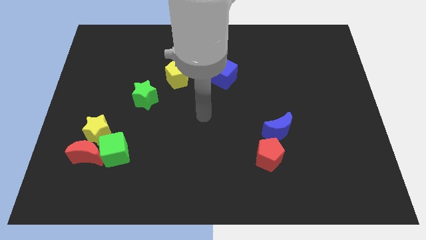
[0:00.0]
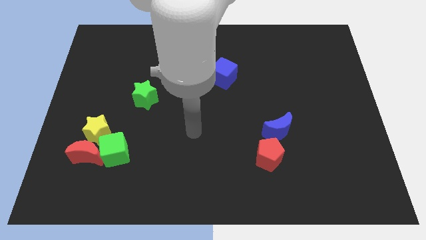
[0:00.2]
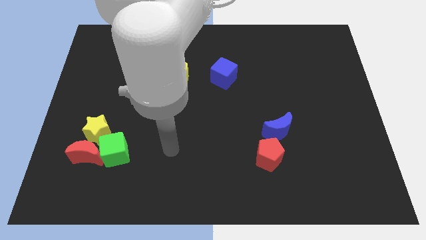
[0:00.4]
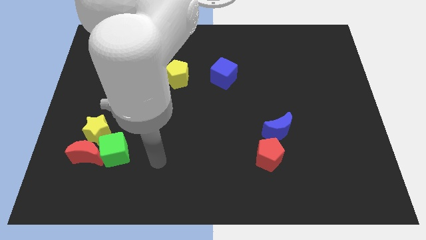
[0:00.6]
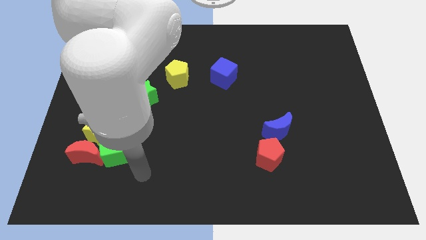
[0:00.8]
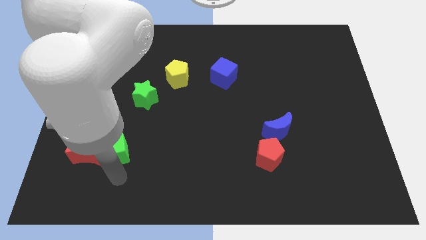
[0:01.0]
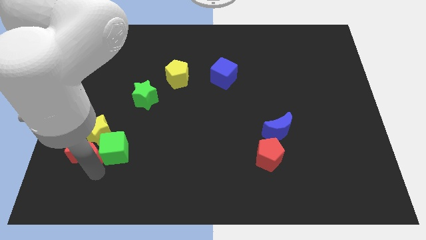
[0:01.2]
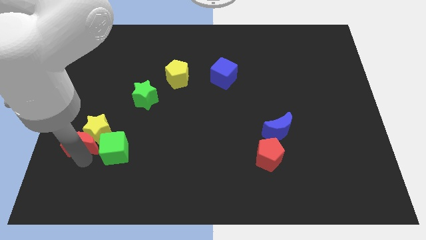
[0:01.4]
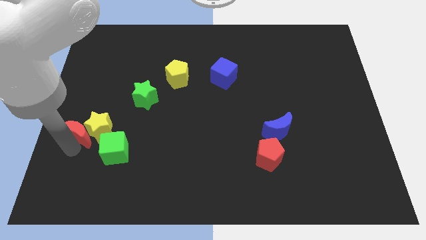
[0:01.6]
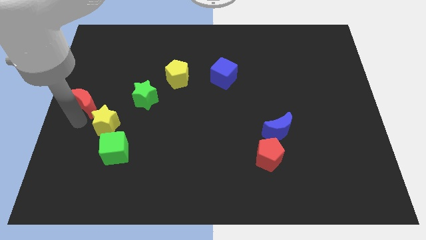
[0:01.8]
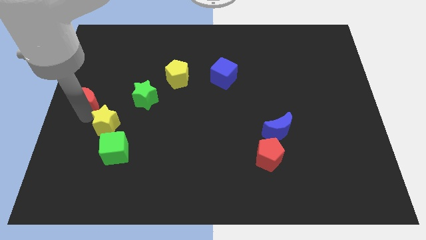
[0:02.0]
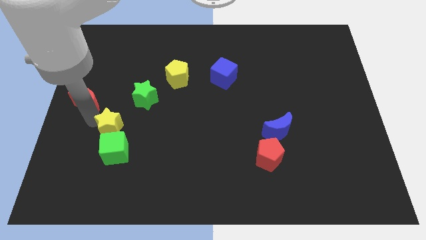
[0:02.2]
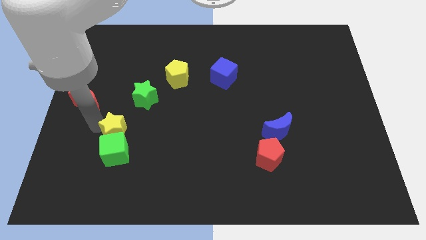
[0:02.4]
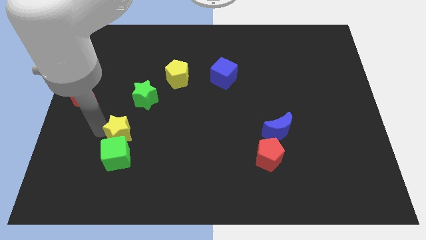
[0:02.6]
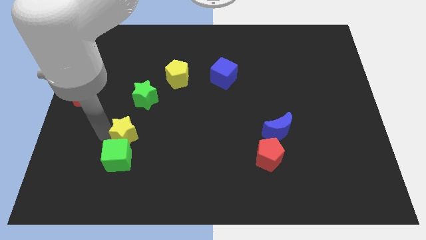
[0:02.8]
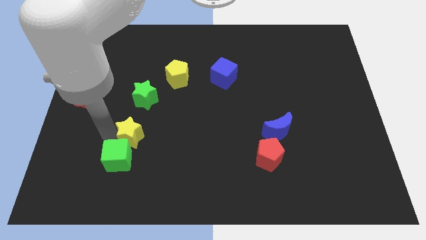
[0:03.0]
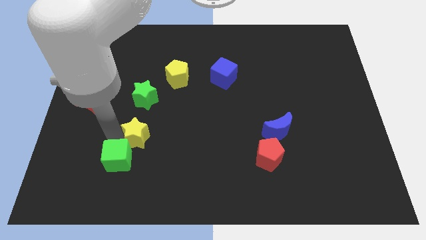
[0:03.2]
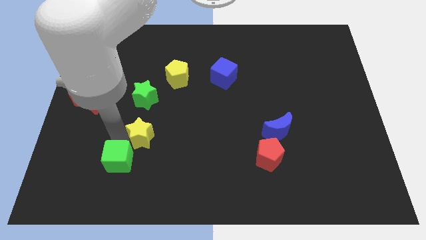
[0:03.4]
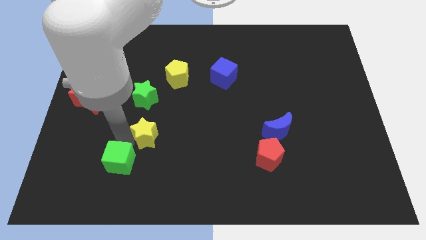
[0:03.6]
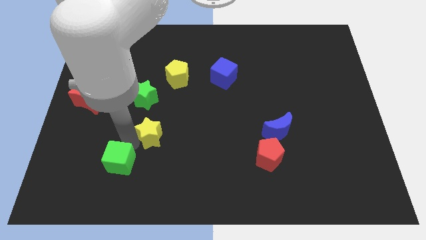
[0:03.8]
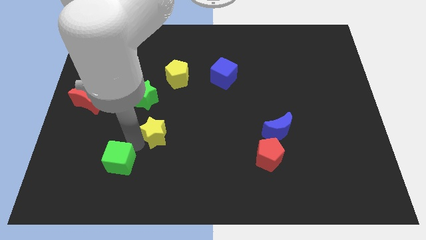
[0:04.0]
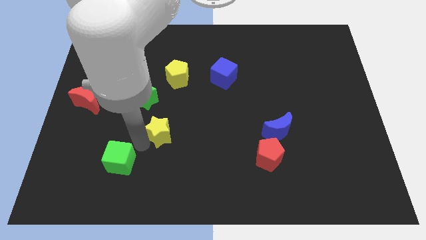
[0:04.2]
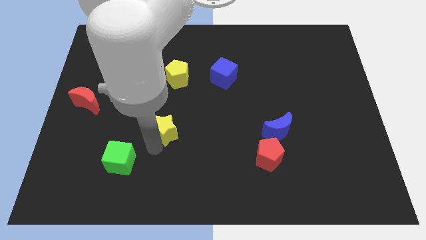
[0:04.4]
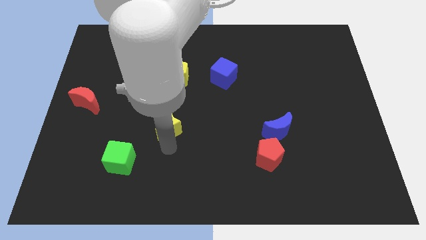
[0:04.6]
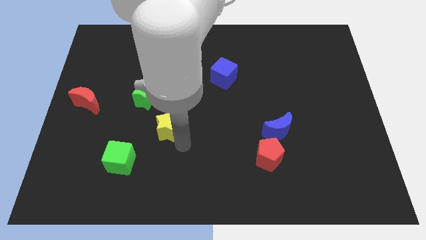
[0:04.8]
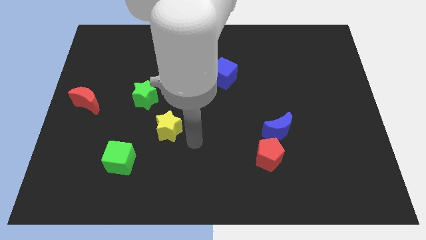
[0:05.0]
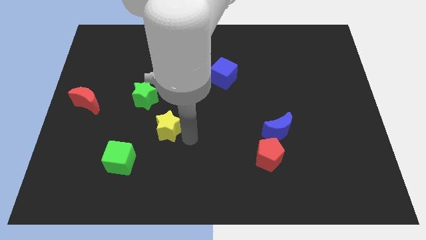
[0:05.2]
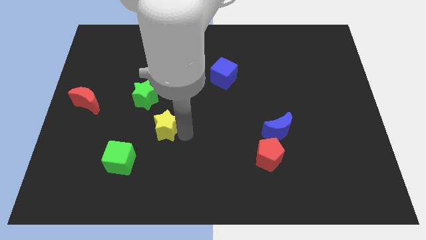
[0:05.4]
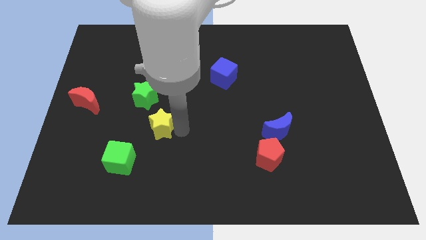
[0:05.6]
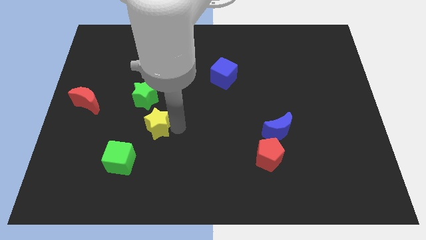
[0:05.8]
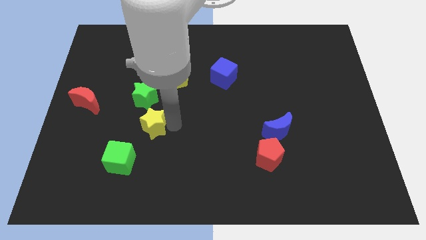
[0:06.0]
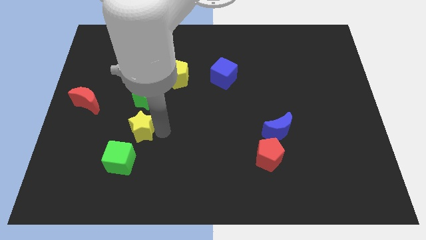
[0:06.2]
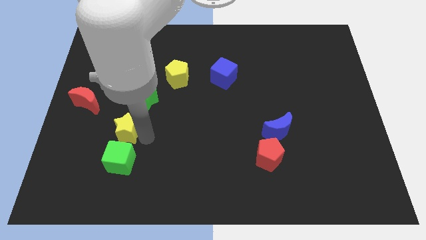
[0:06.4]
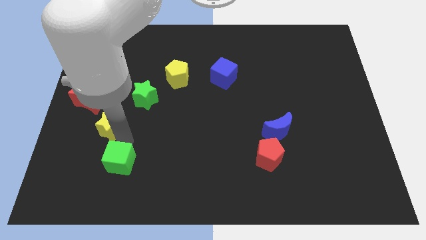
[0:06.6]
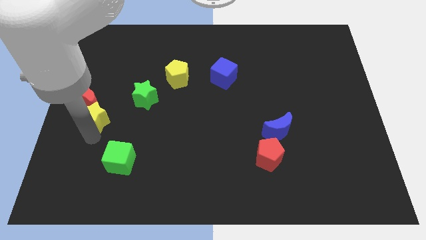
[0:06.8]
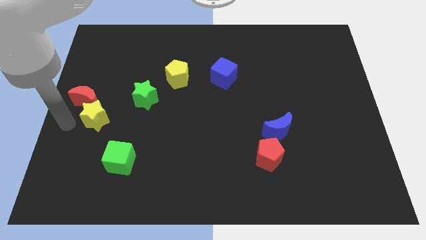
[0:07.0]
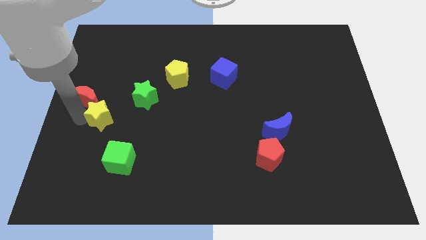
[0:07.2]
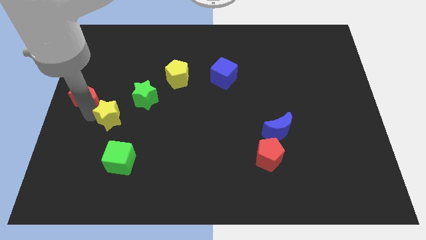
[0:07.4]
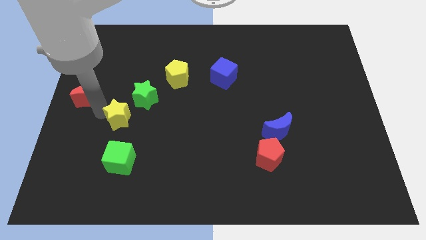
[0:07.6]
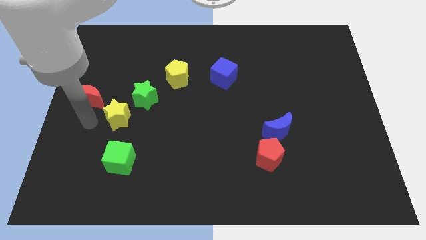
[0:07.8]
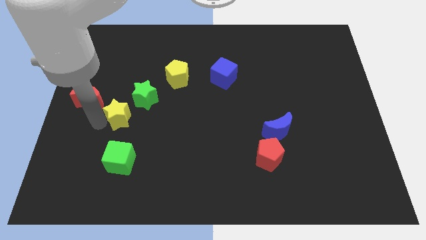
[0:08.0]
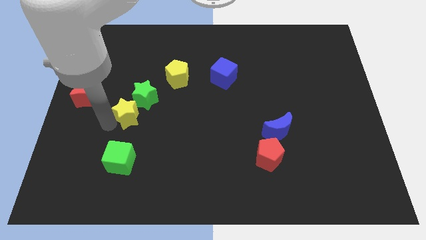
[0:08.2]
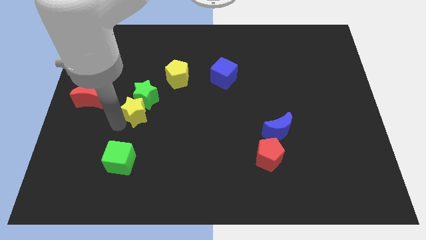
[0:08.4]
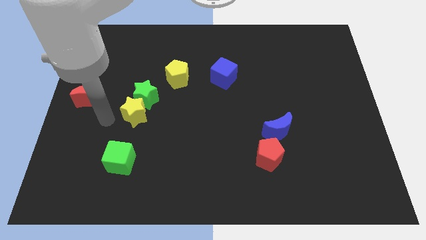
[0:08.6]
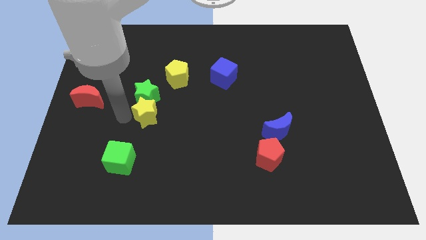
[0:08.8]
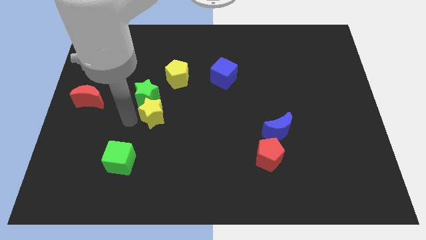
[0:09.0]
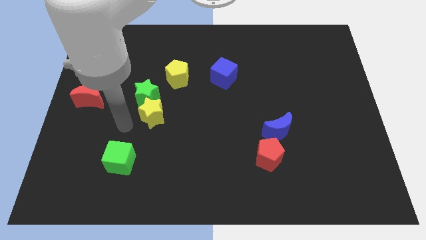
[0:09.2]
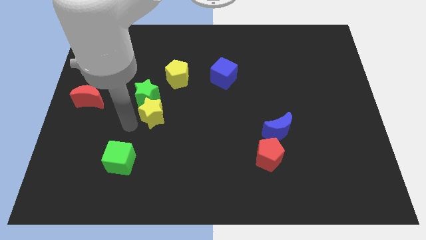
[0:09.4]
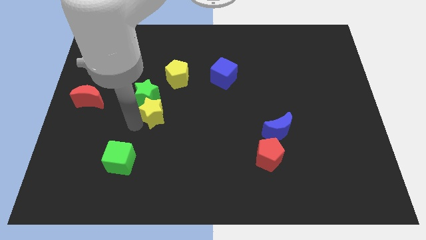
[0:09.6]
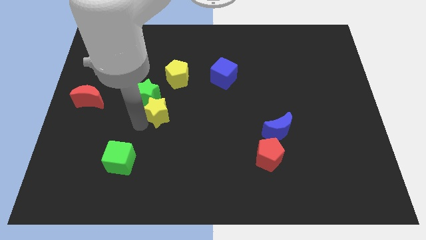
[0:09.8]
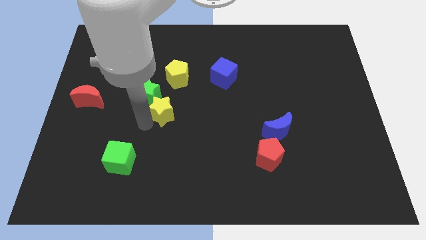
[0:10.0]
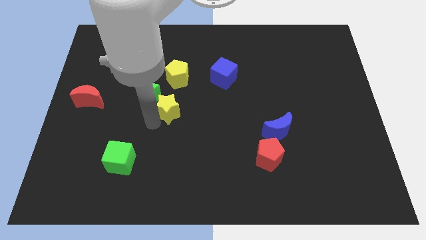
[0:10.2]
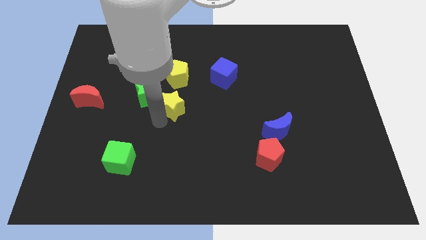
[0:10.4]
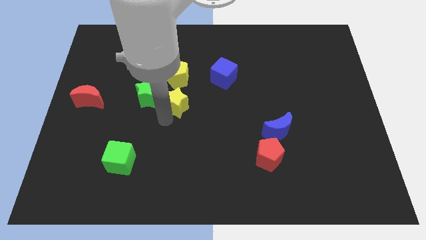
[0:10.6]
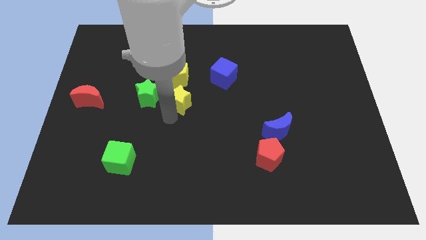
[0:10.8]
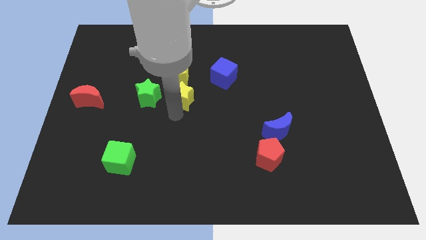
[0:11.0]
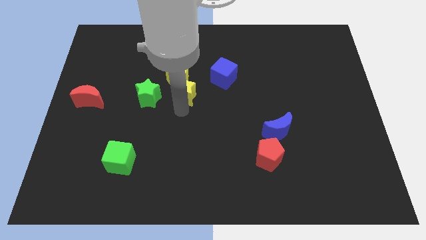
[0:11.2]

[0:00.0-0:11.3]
move the yellow star diagonally up and to the right

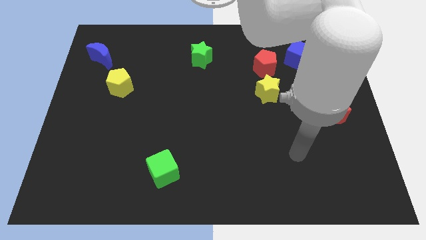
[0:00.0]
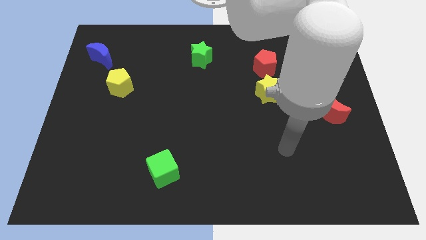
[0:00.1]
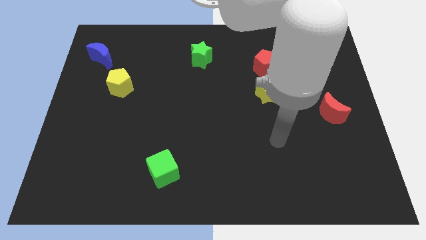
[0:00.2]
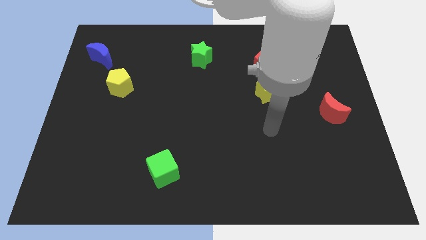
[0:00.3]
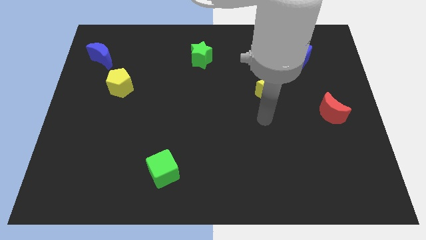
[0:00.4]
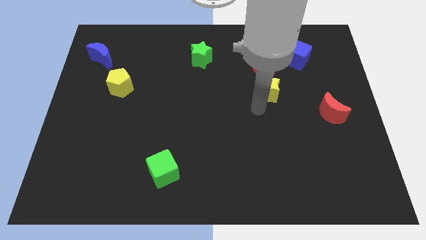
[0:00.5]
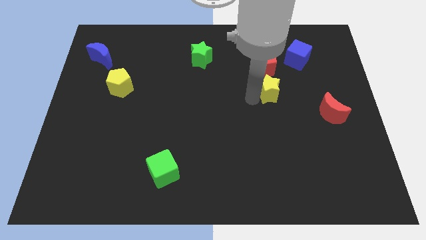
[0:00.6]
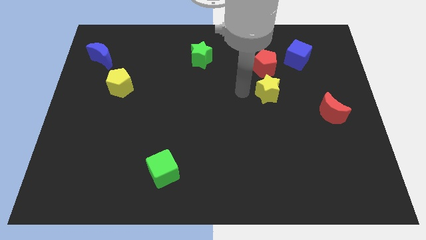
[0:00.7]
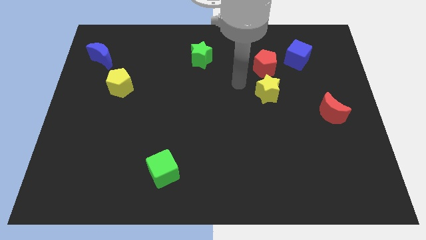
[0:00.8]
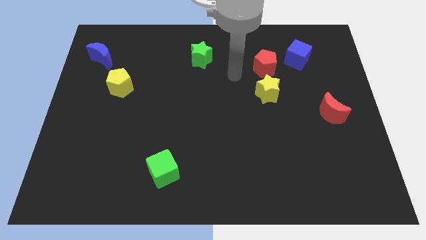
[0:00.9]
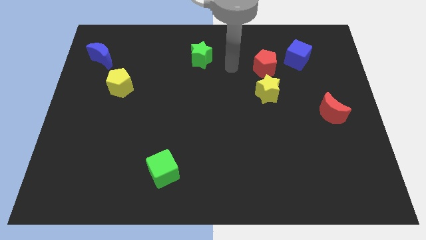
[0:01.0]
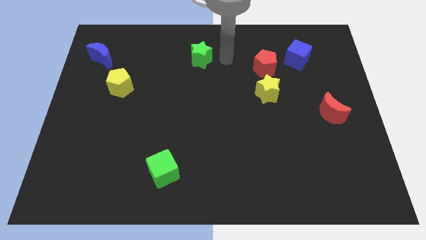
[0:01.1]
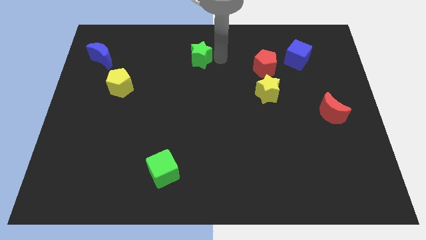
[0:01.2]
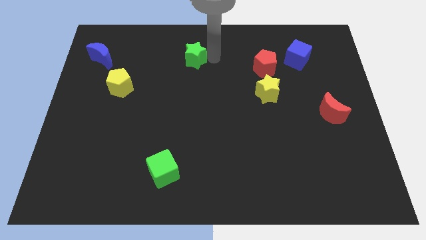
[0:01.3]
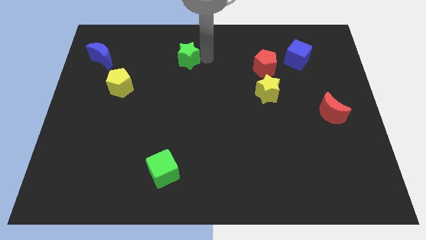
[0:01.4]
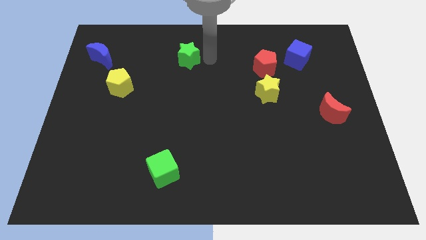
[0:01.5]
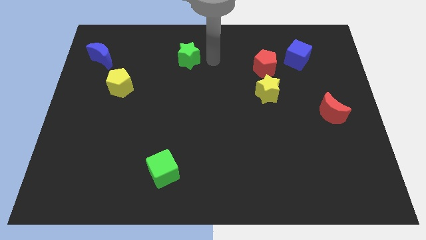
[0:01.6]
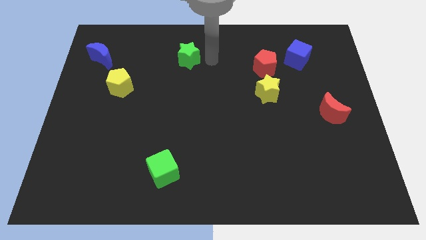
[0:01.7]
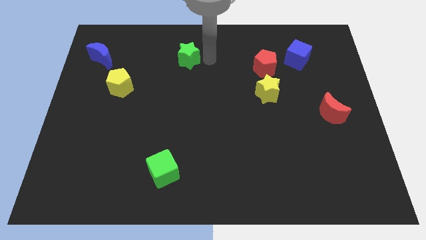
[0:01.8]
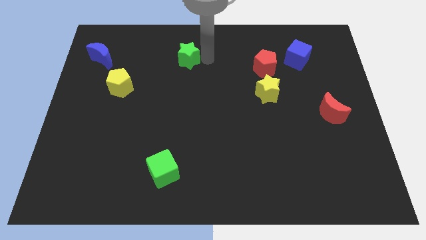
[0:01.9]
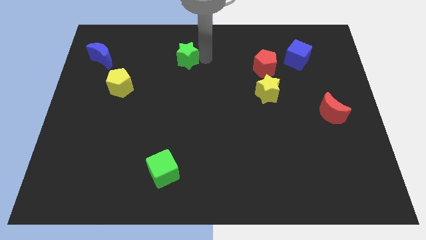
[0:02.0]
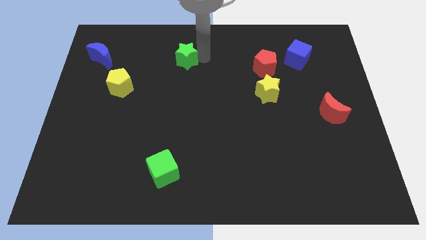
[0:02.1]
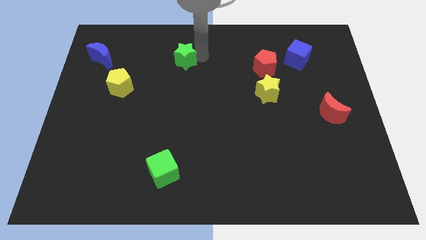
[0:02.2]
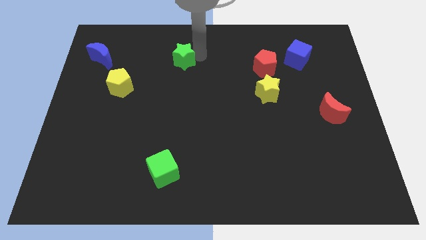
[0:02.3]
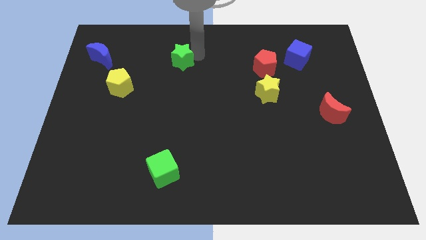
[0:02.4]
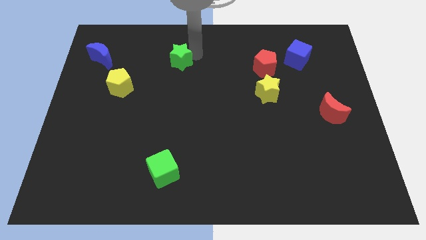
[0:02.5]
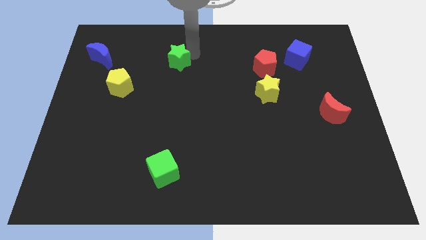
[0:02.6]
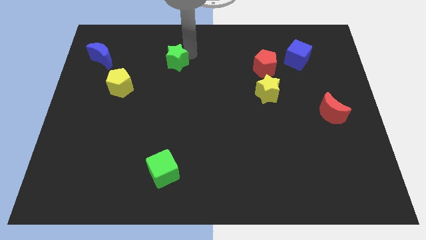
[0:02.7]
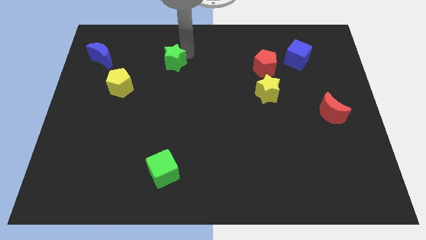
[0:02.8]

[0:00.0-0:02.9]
slightly push the green star to the left
